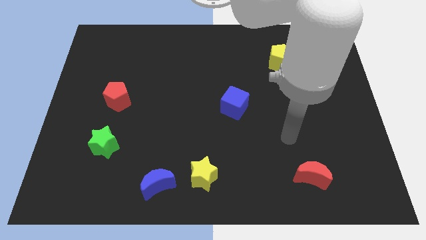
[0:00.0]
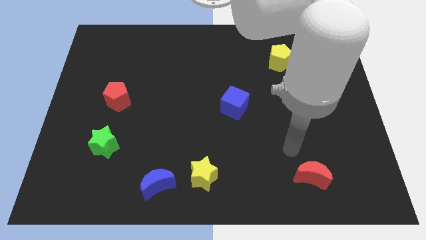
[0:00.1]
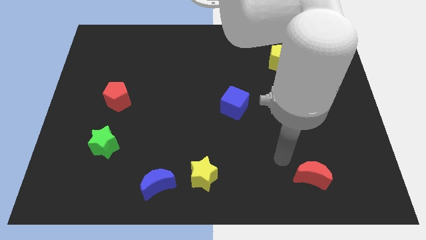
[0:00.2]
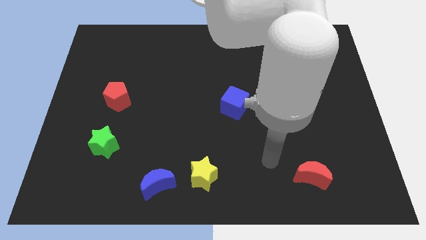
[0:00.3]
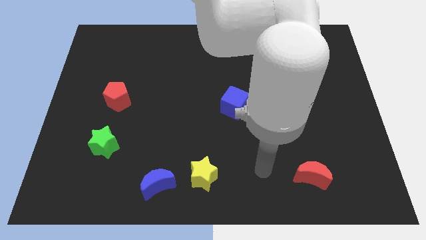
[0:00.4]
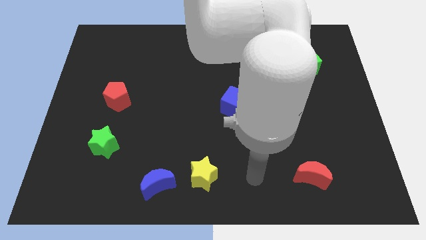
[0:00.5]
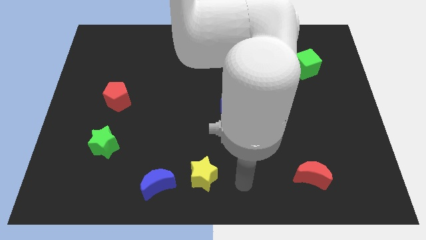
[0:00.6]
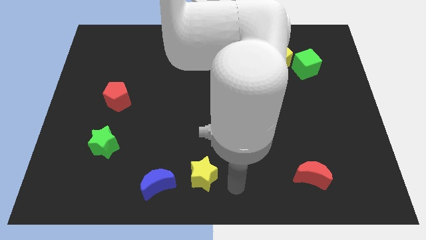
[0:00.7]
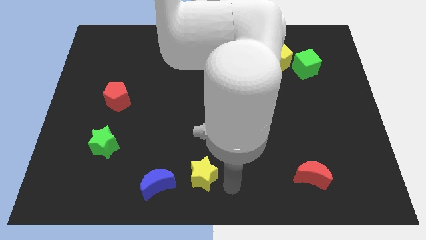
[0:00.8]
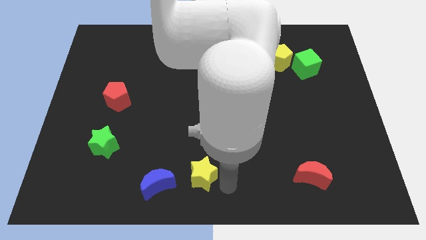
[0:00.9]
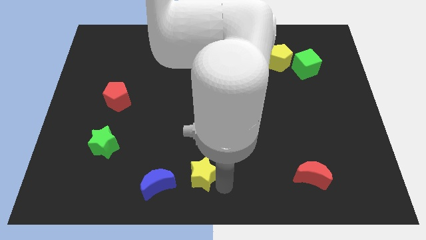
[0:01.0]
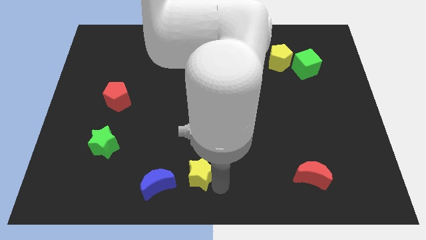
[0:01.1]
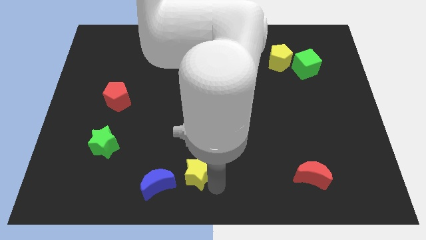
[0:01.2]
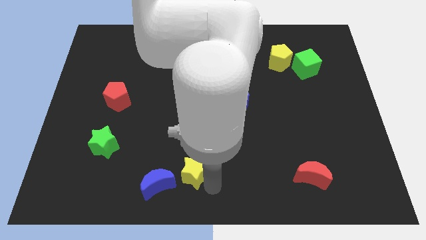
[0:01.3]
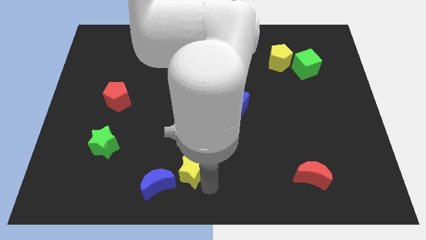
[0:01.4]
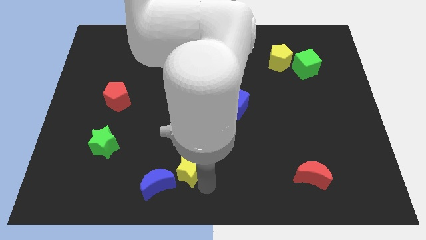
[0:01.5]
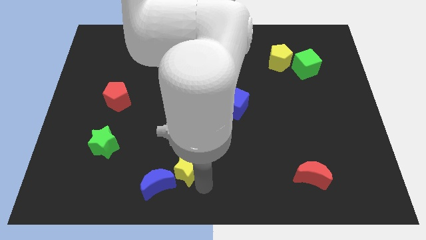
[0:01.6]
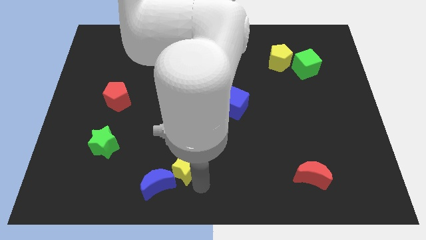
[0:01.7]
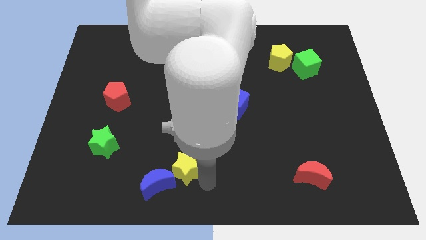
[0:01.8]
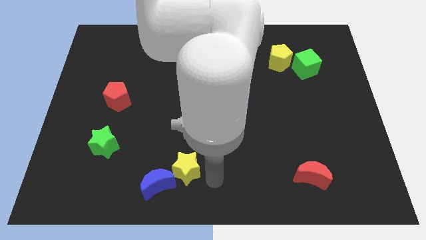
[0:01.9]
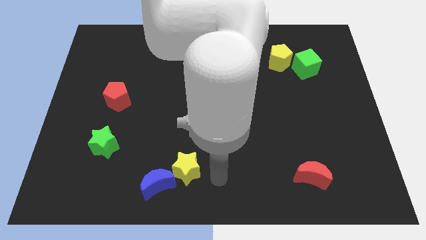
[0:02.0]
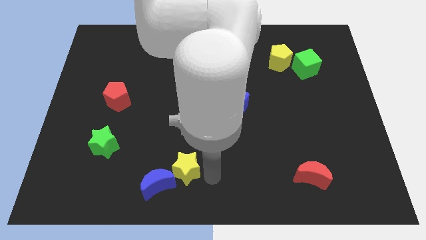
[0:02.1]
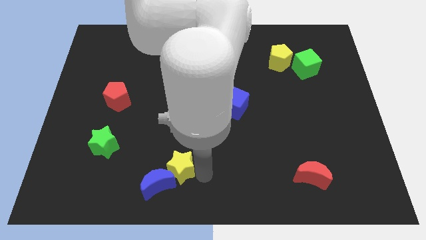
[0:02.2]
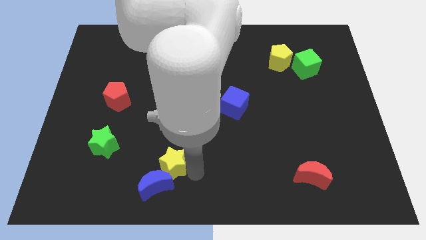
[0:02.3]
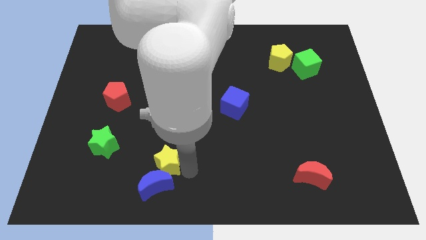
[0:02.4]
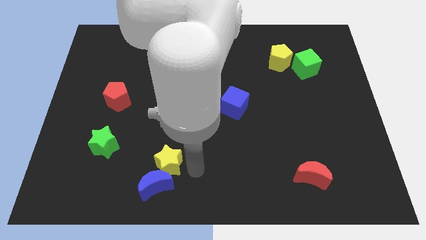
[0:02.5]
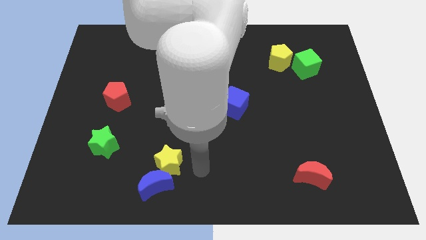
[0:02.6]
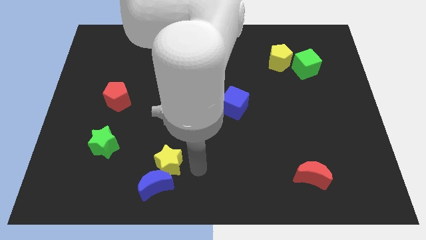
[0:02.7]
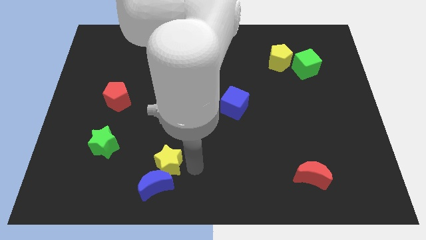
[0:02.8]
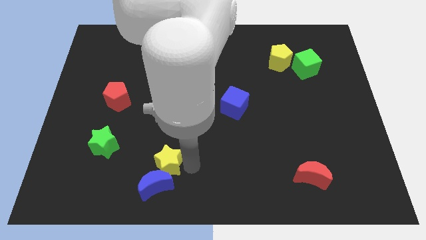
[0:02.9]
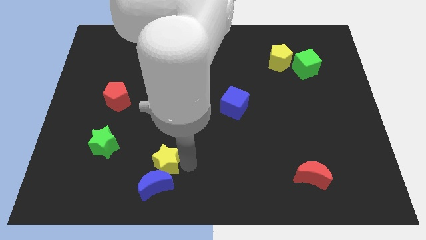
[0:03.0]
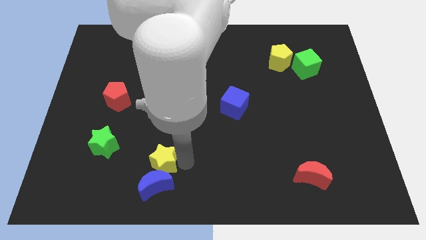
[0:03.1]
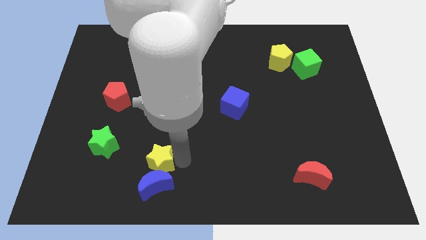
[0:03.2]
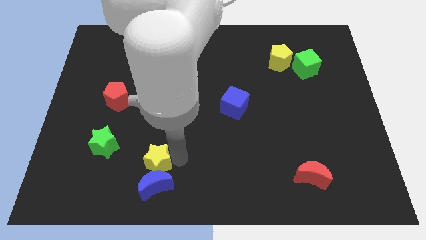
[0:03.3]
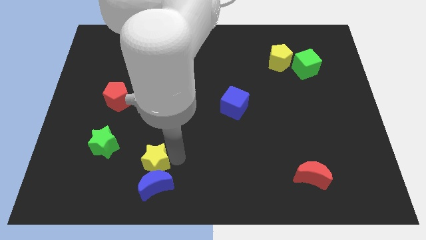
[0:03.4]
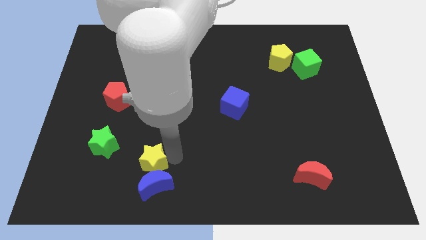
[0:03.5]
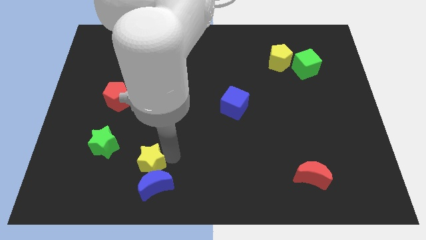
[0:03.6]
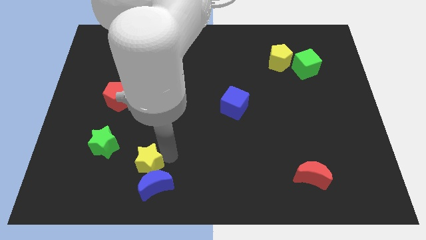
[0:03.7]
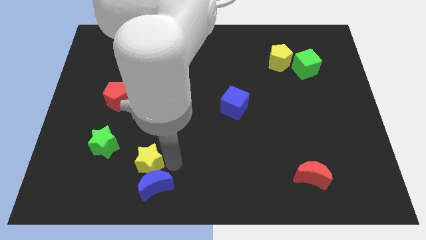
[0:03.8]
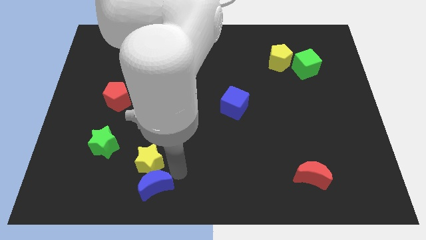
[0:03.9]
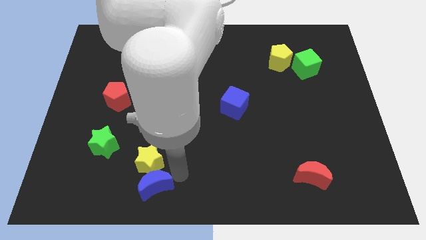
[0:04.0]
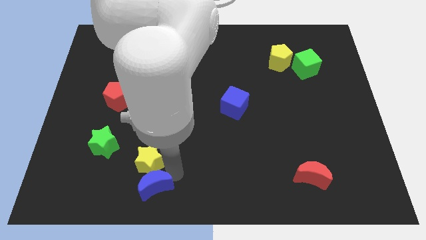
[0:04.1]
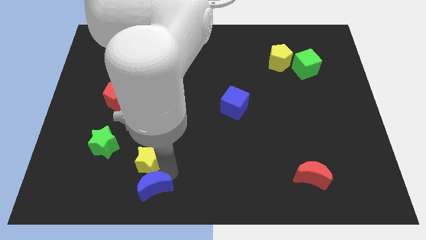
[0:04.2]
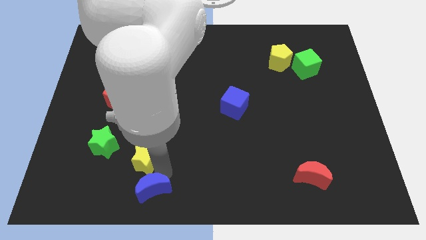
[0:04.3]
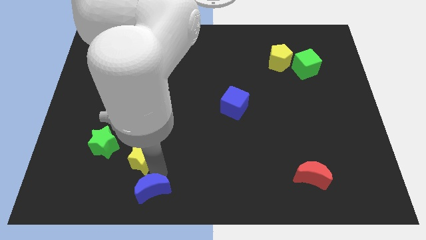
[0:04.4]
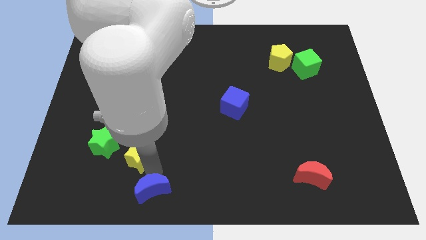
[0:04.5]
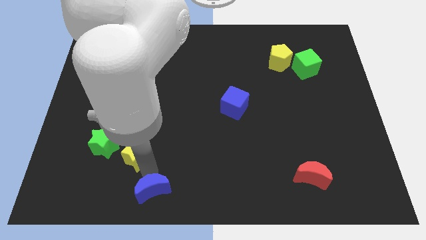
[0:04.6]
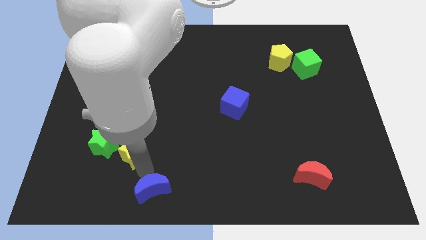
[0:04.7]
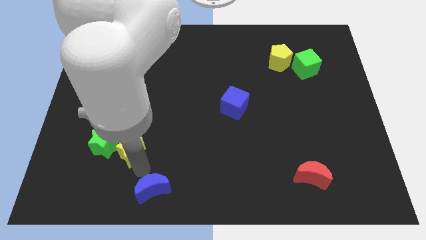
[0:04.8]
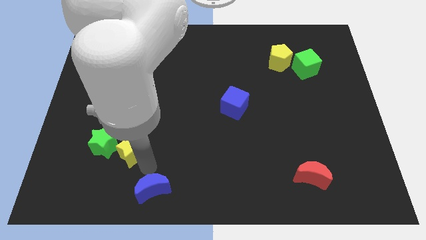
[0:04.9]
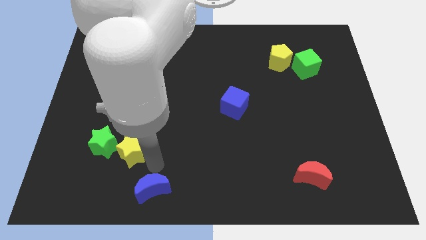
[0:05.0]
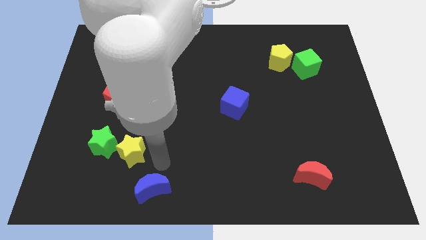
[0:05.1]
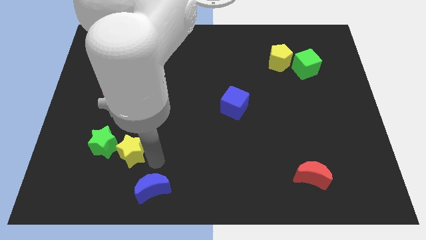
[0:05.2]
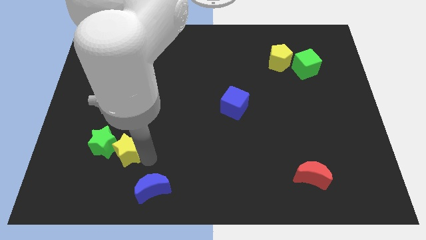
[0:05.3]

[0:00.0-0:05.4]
slide the yellow star to the green star
